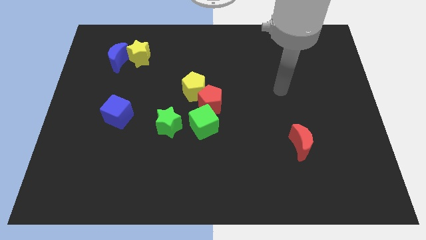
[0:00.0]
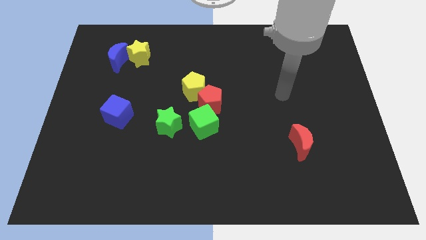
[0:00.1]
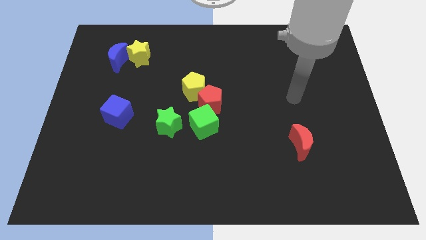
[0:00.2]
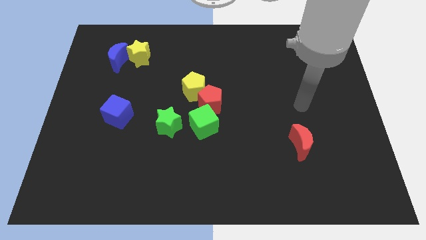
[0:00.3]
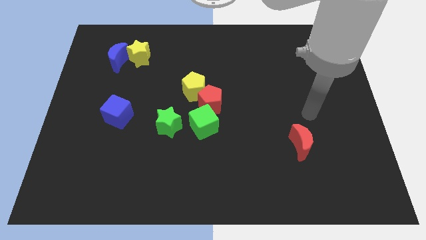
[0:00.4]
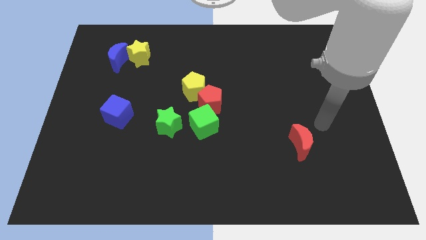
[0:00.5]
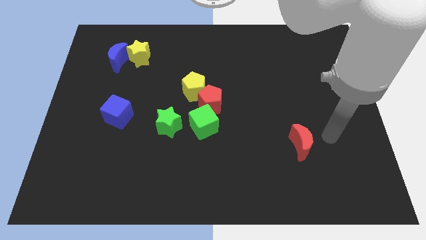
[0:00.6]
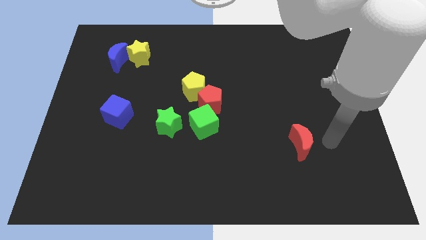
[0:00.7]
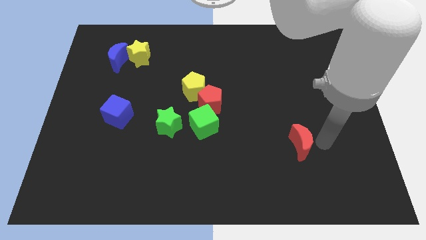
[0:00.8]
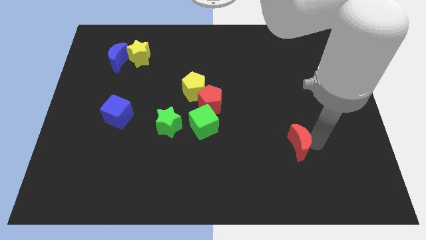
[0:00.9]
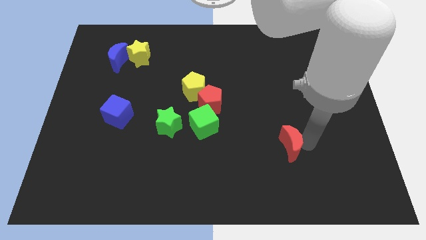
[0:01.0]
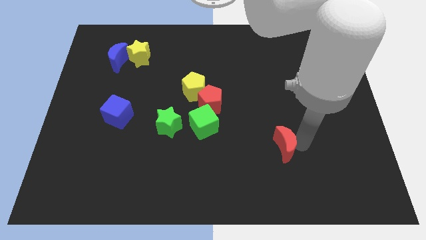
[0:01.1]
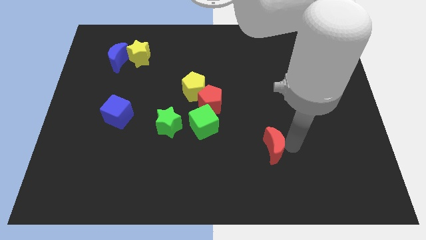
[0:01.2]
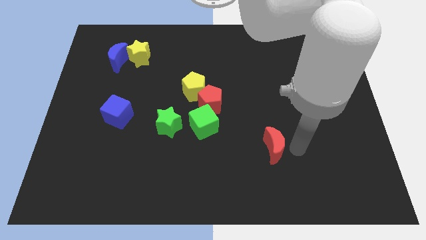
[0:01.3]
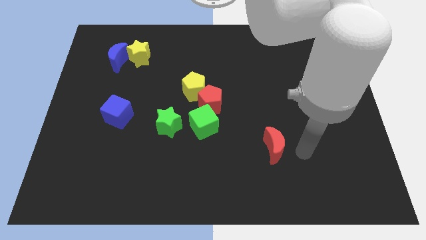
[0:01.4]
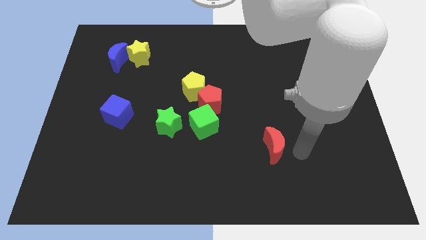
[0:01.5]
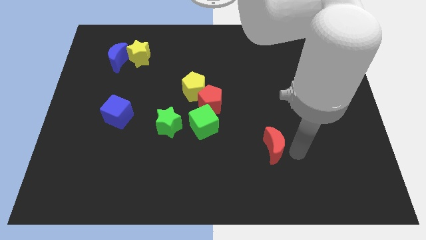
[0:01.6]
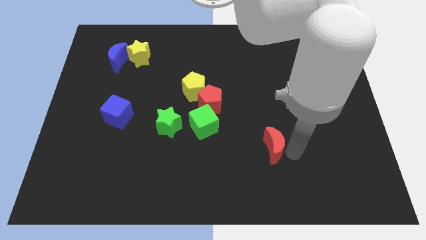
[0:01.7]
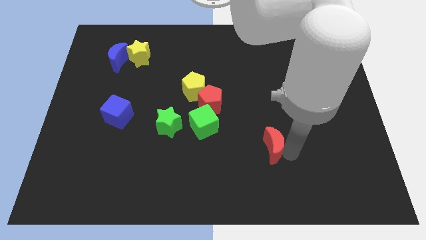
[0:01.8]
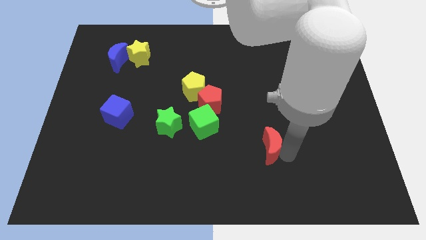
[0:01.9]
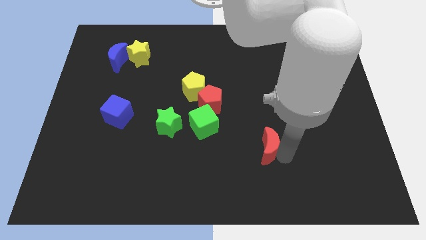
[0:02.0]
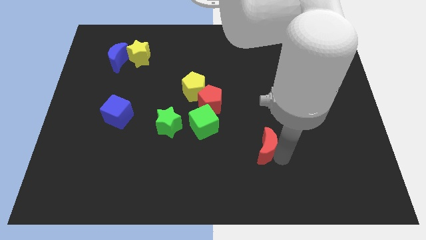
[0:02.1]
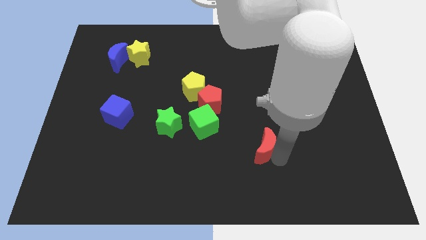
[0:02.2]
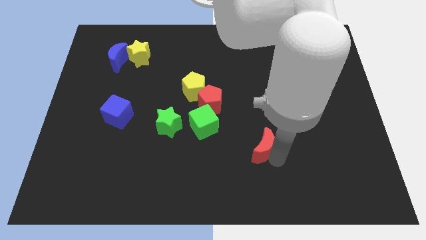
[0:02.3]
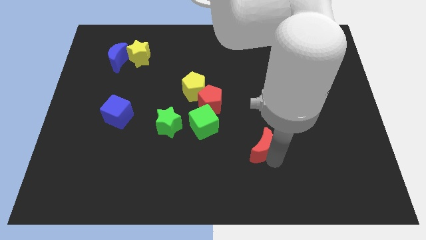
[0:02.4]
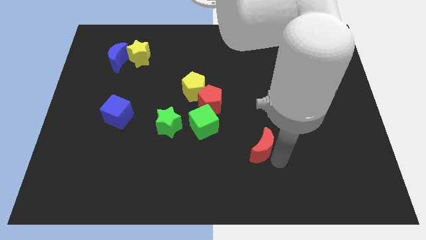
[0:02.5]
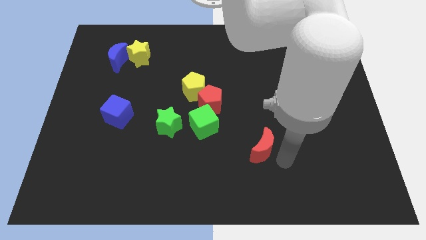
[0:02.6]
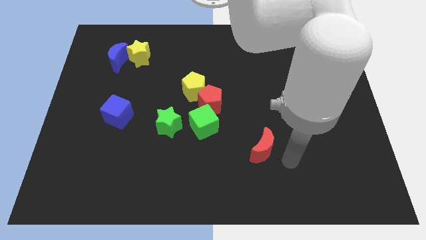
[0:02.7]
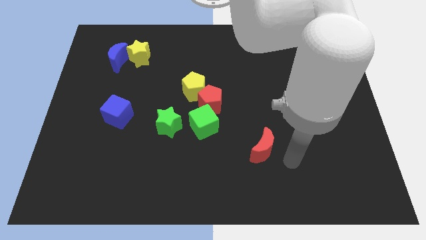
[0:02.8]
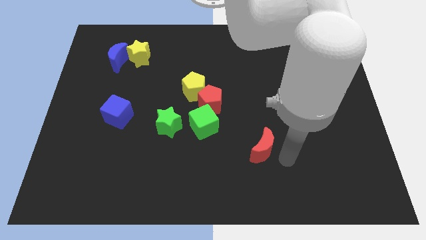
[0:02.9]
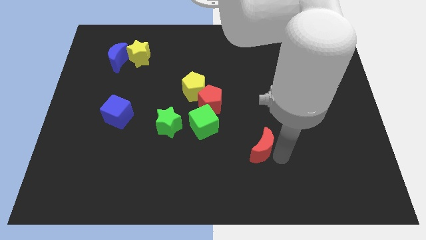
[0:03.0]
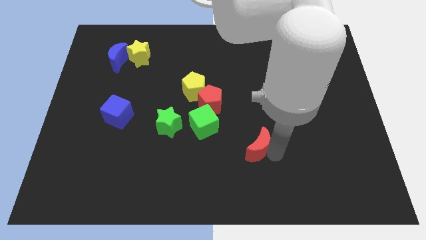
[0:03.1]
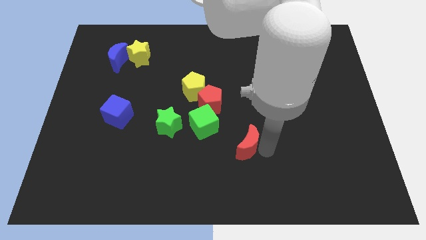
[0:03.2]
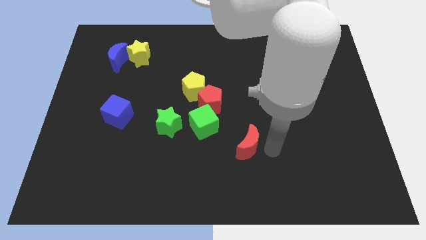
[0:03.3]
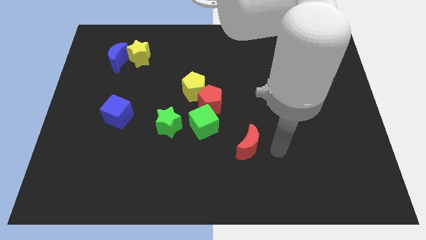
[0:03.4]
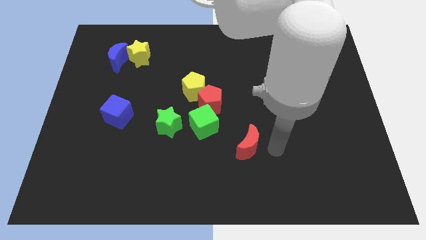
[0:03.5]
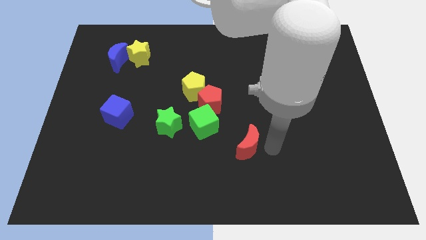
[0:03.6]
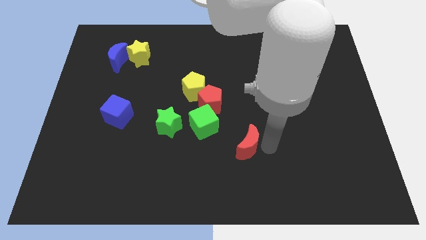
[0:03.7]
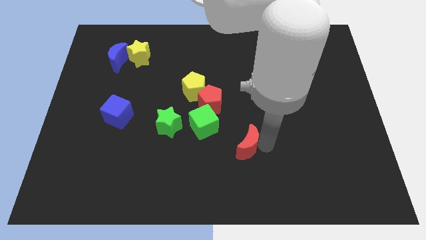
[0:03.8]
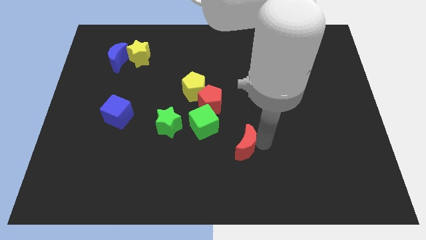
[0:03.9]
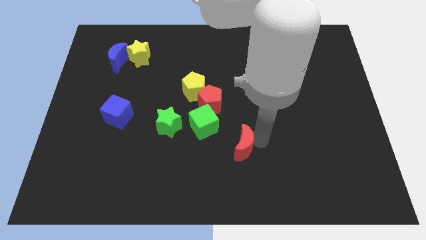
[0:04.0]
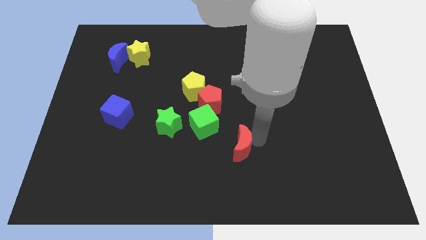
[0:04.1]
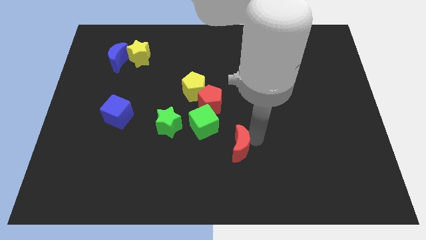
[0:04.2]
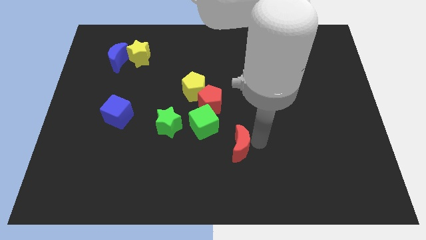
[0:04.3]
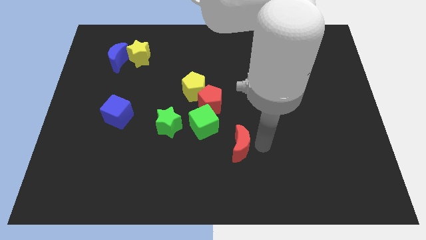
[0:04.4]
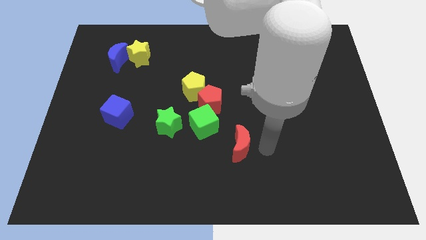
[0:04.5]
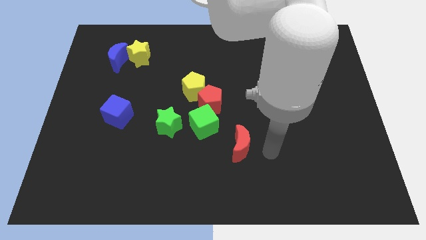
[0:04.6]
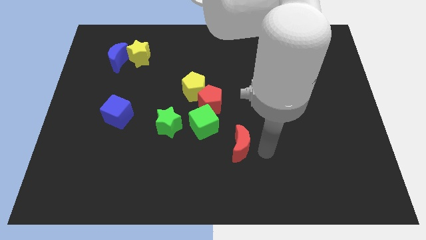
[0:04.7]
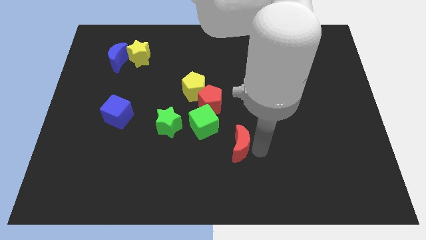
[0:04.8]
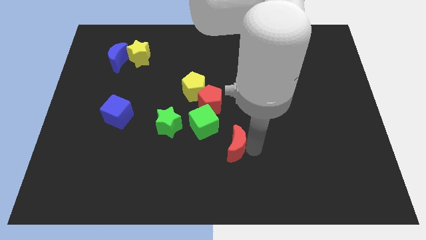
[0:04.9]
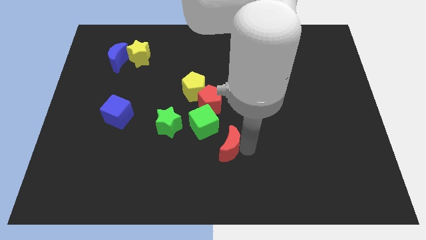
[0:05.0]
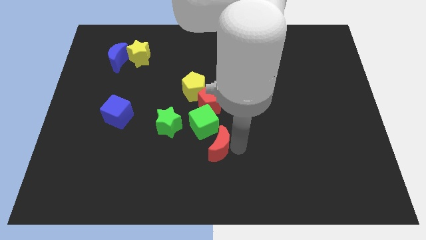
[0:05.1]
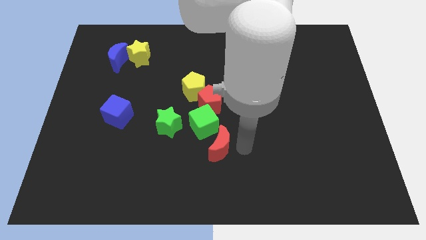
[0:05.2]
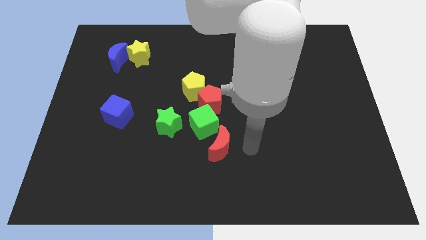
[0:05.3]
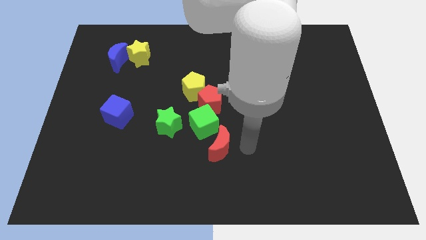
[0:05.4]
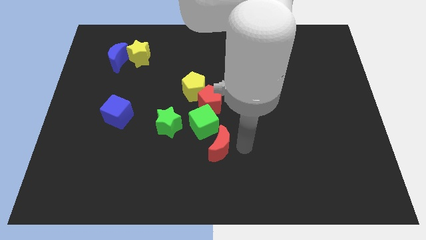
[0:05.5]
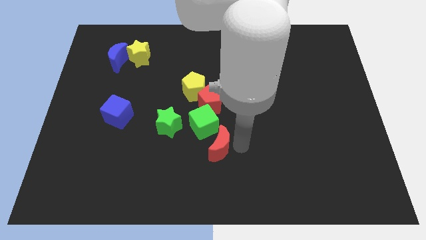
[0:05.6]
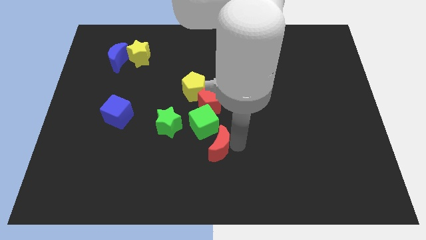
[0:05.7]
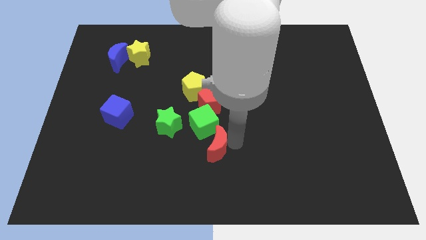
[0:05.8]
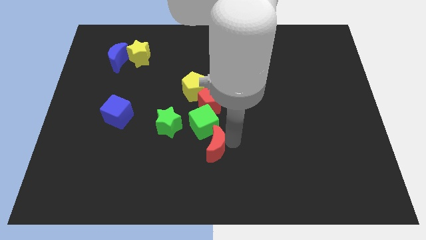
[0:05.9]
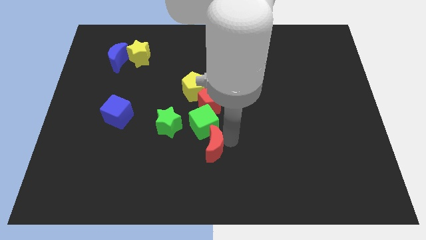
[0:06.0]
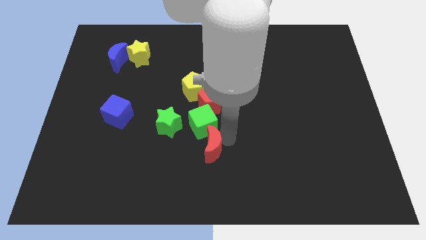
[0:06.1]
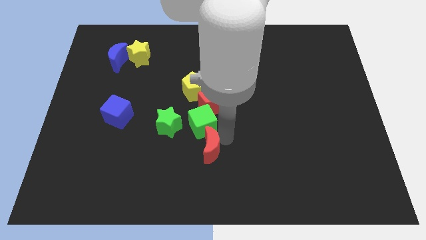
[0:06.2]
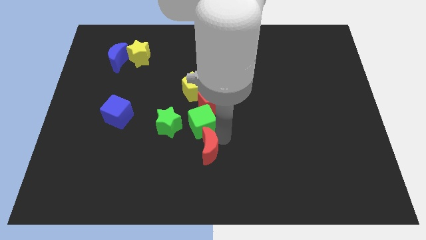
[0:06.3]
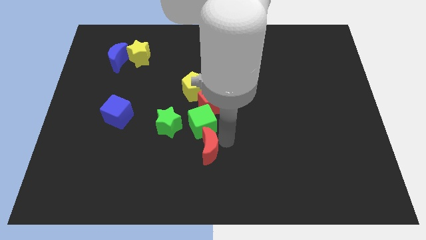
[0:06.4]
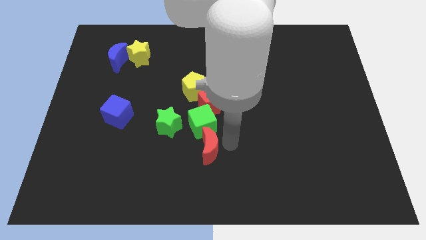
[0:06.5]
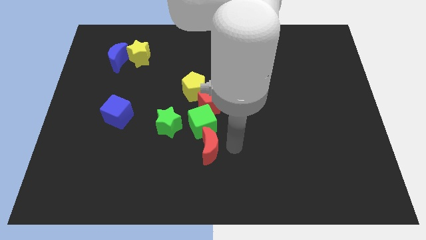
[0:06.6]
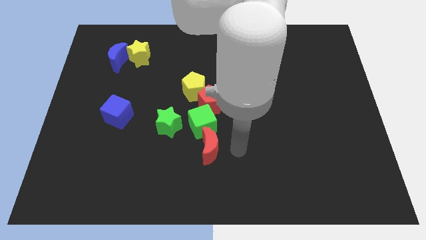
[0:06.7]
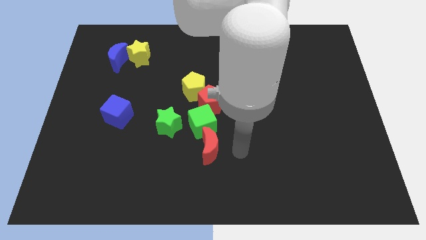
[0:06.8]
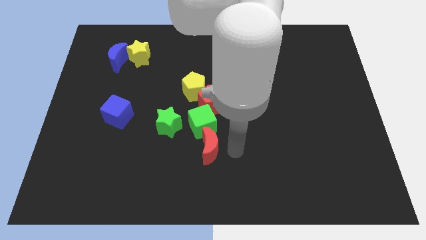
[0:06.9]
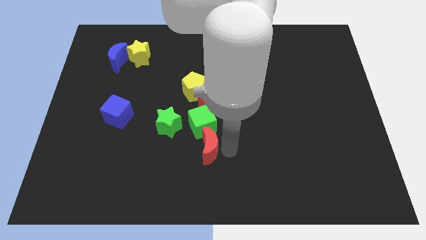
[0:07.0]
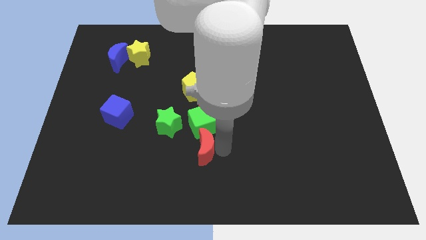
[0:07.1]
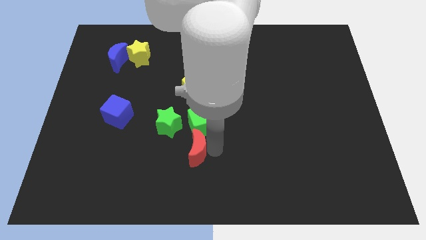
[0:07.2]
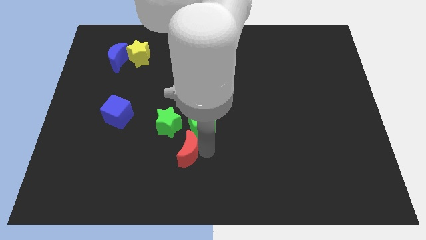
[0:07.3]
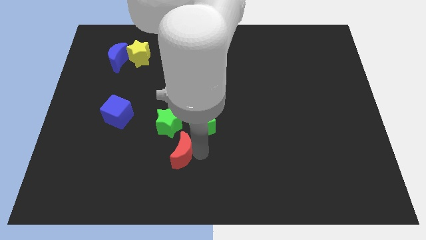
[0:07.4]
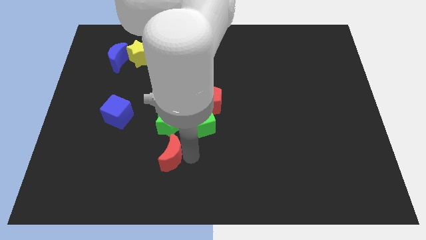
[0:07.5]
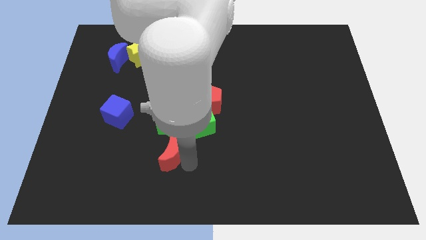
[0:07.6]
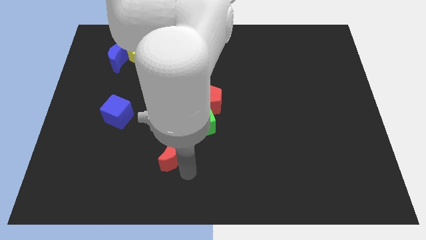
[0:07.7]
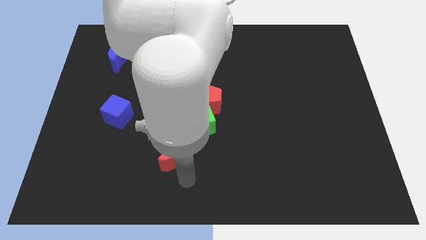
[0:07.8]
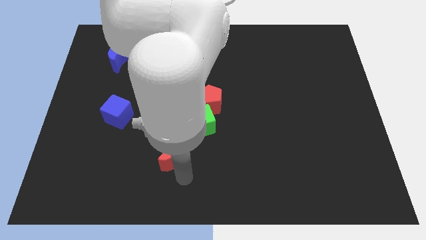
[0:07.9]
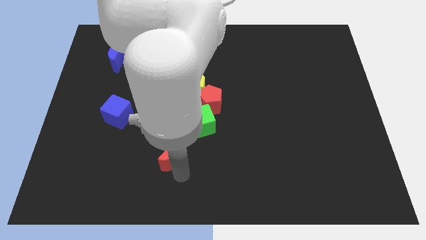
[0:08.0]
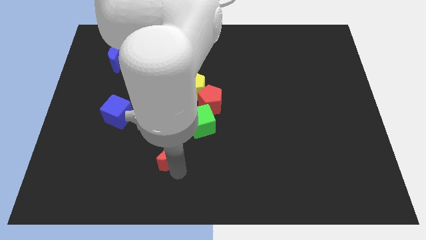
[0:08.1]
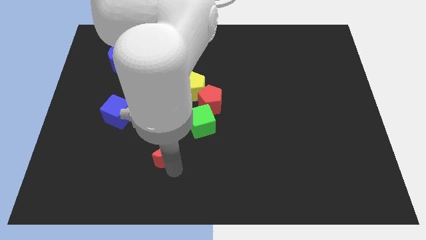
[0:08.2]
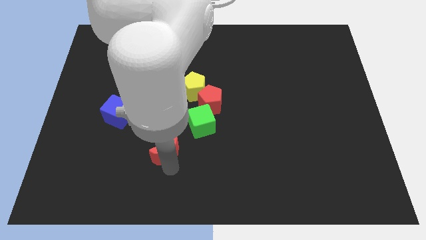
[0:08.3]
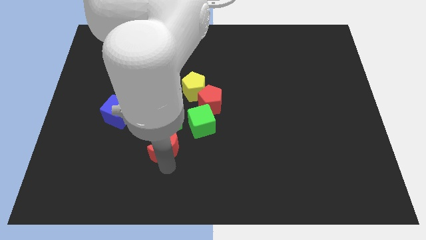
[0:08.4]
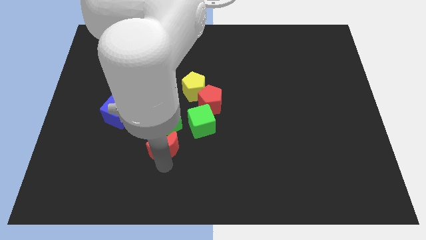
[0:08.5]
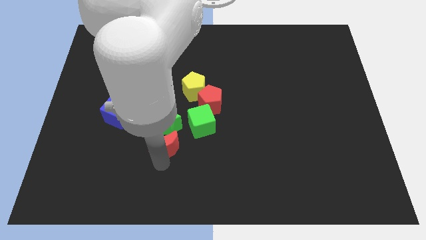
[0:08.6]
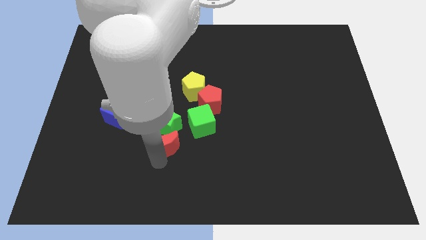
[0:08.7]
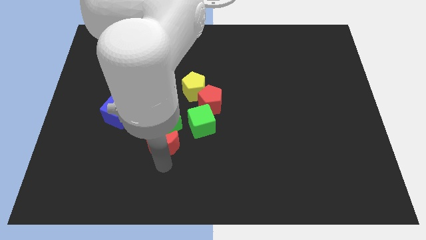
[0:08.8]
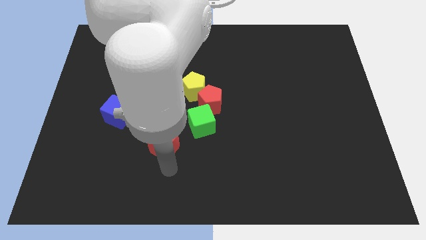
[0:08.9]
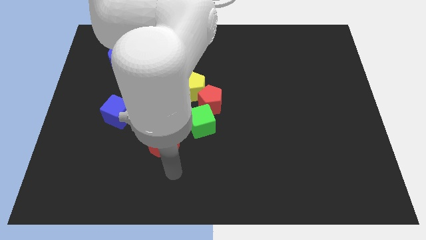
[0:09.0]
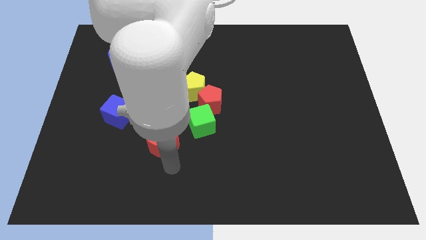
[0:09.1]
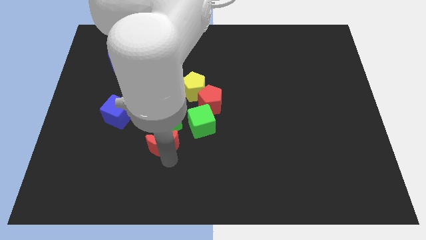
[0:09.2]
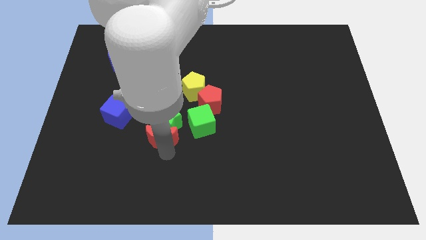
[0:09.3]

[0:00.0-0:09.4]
push the red moon to the left side of the green cube
